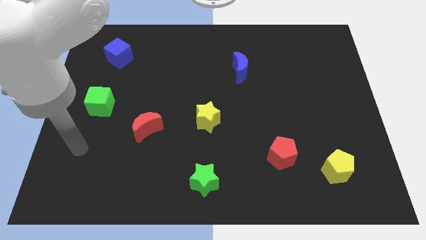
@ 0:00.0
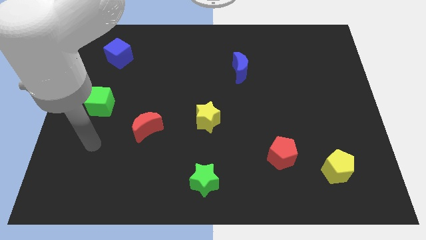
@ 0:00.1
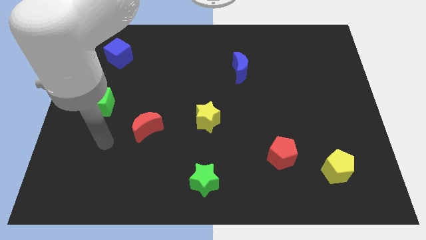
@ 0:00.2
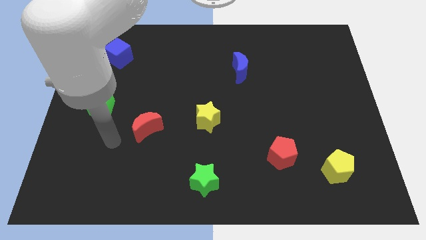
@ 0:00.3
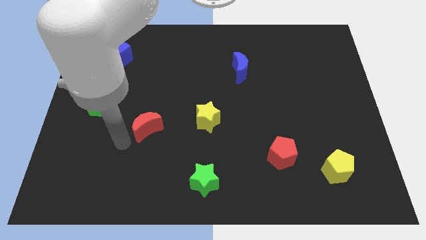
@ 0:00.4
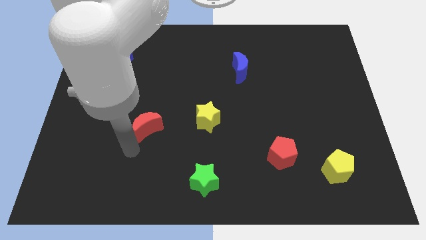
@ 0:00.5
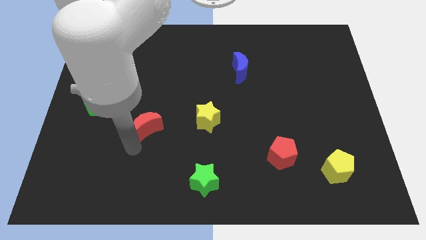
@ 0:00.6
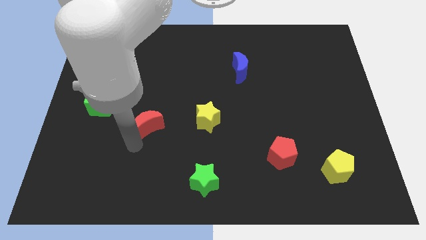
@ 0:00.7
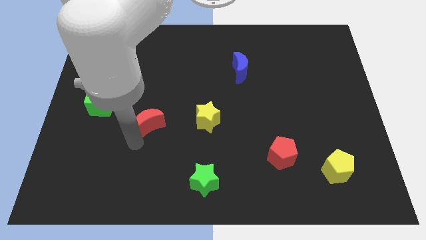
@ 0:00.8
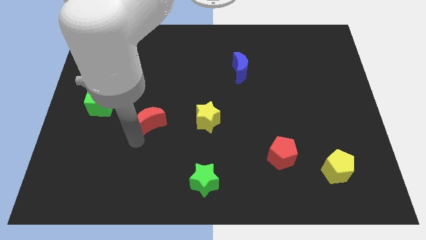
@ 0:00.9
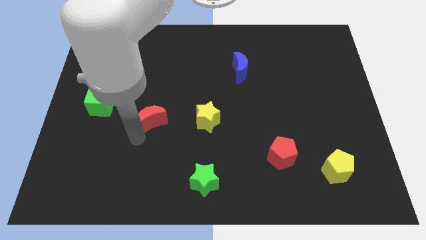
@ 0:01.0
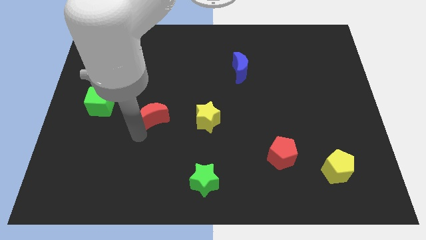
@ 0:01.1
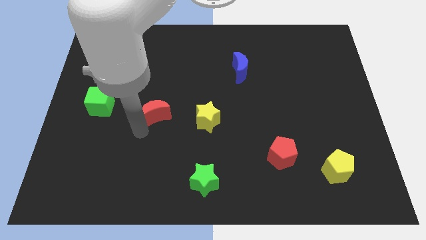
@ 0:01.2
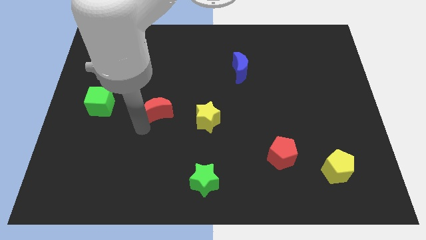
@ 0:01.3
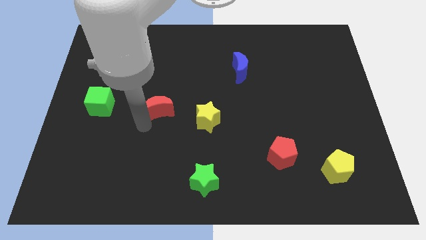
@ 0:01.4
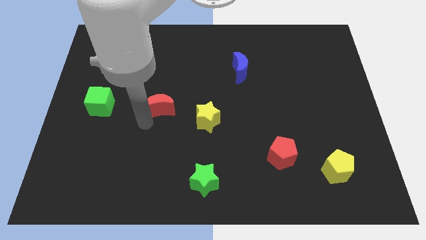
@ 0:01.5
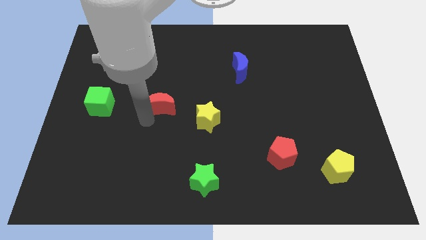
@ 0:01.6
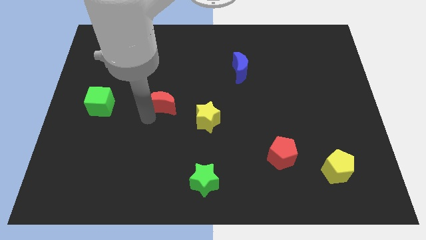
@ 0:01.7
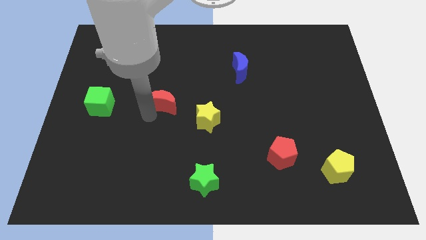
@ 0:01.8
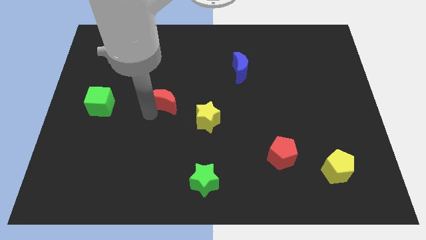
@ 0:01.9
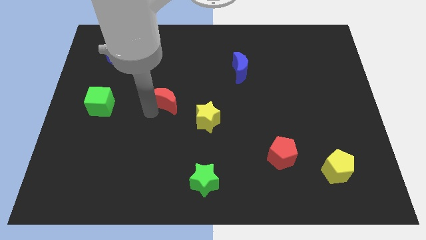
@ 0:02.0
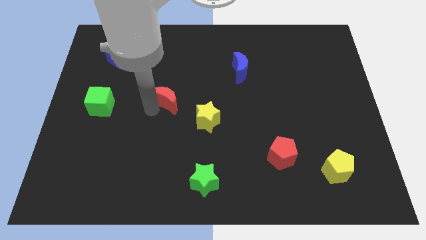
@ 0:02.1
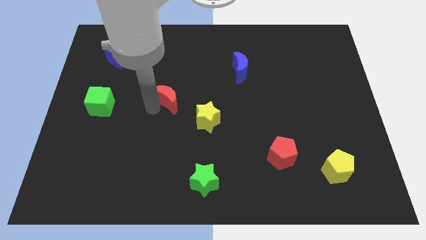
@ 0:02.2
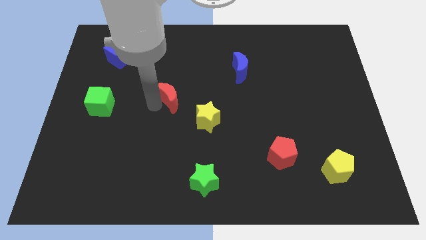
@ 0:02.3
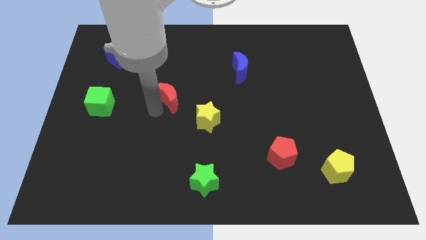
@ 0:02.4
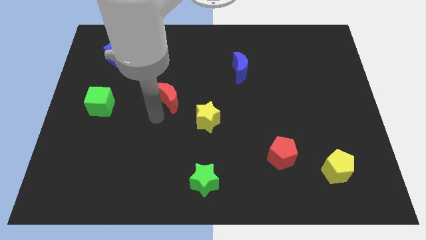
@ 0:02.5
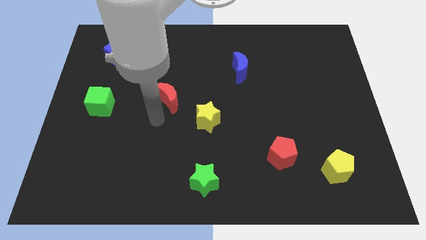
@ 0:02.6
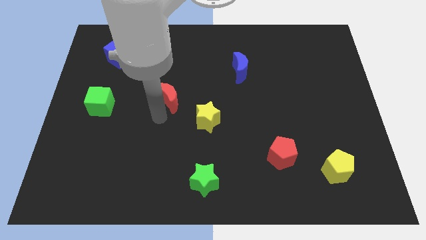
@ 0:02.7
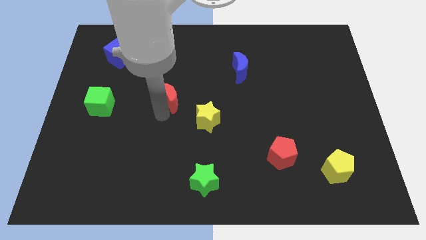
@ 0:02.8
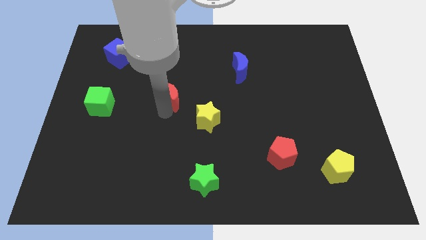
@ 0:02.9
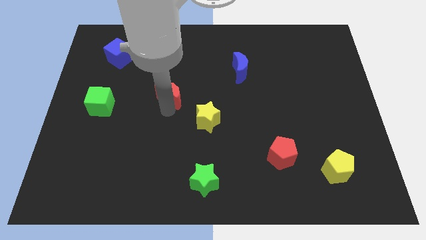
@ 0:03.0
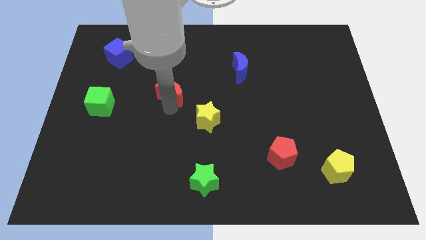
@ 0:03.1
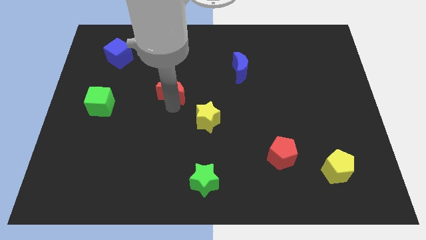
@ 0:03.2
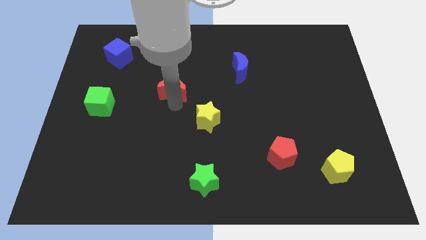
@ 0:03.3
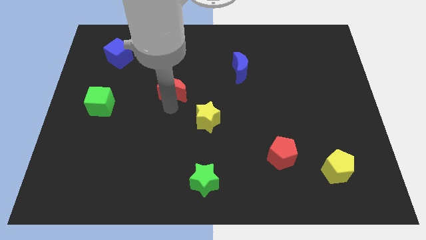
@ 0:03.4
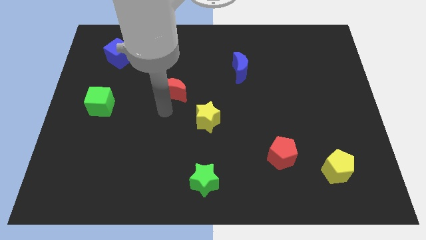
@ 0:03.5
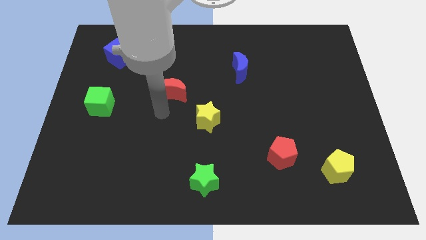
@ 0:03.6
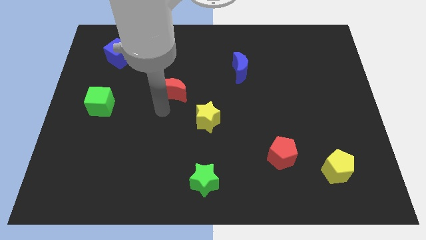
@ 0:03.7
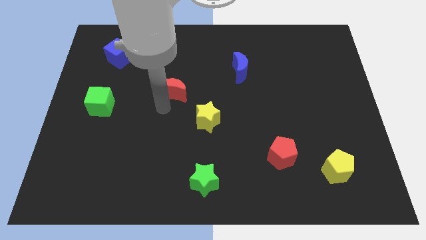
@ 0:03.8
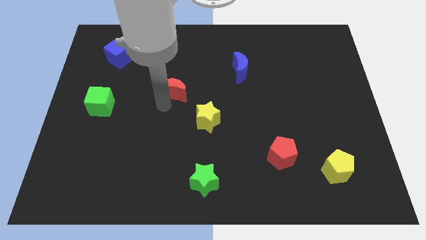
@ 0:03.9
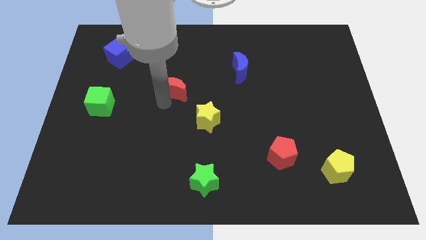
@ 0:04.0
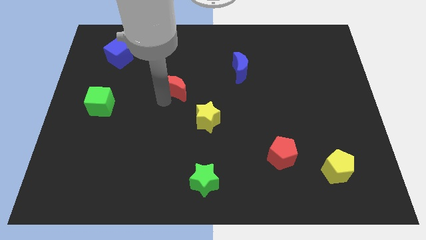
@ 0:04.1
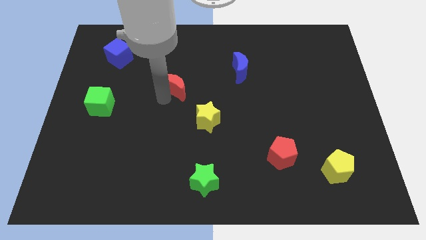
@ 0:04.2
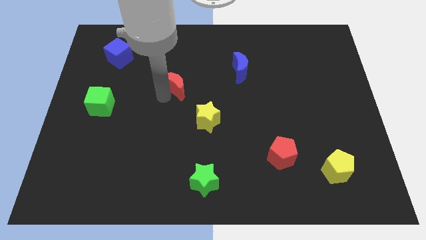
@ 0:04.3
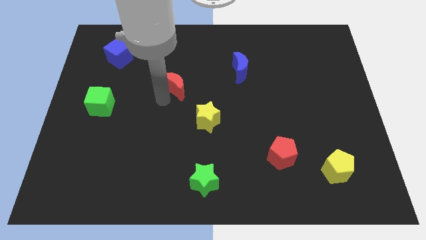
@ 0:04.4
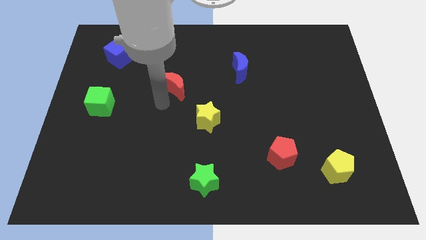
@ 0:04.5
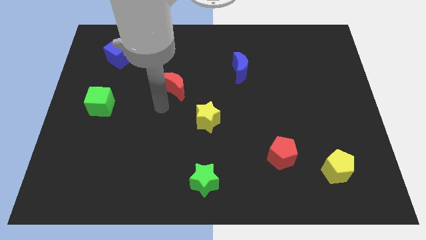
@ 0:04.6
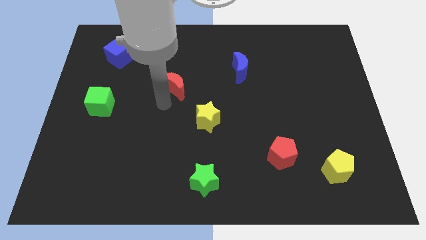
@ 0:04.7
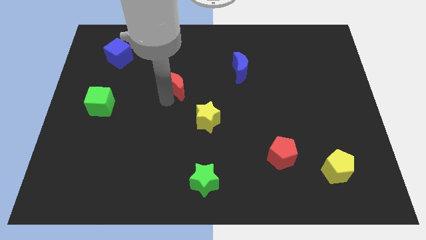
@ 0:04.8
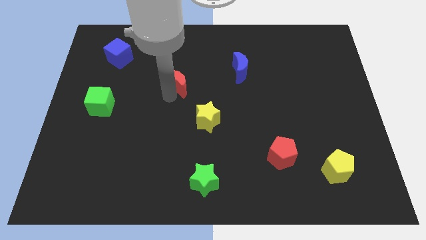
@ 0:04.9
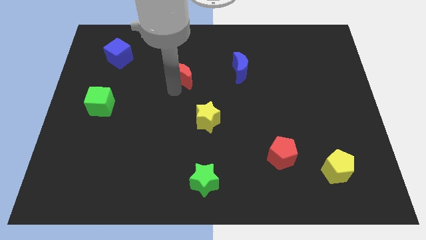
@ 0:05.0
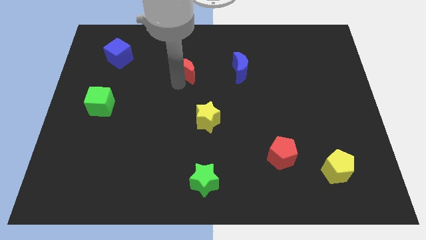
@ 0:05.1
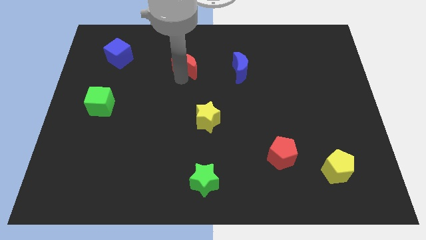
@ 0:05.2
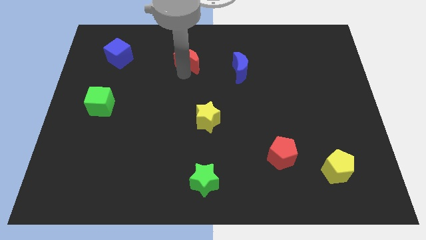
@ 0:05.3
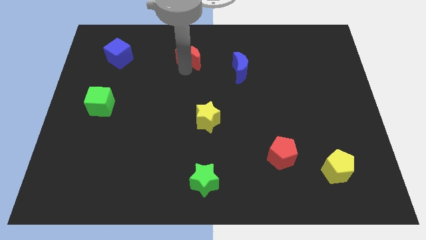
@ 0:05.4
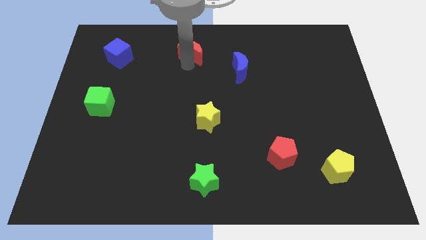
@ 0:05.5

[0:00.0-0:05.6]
push the red moon to the top

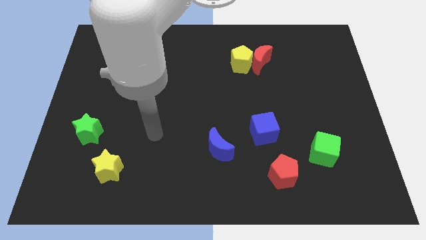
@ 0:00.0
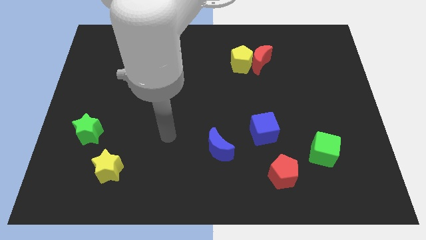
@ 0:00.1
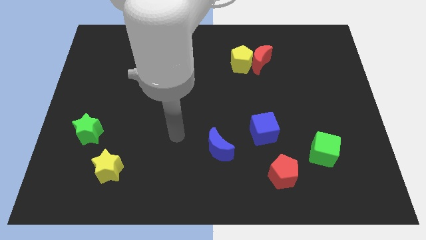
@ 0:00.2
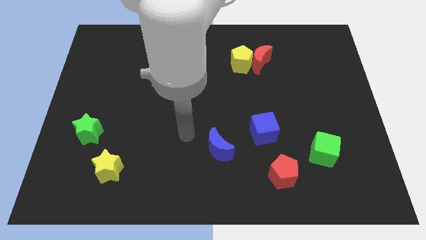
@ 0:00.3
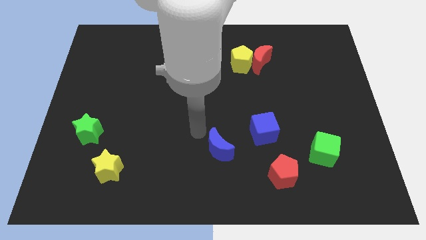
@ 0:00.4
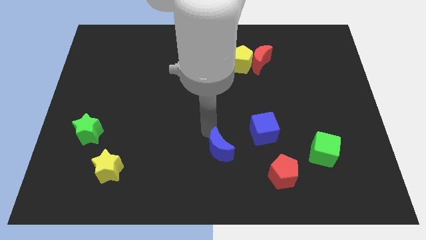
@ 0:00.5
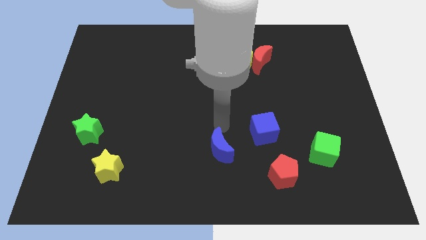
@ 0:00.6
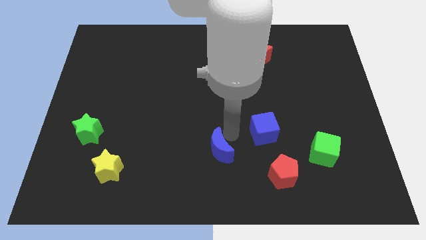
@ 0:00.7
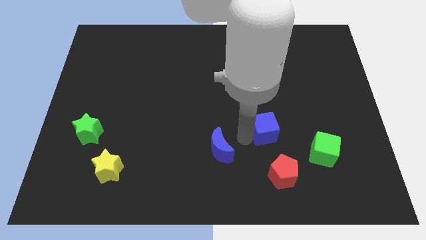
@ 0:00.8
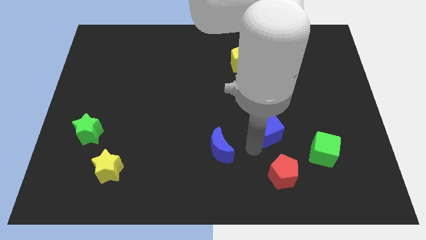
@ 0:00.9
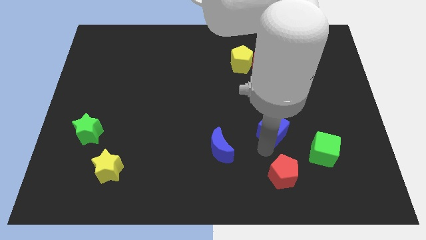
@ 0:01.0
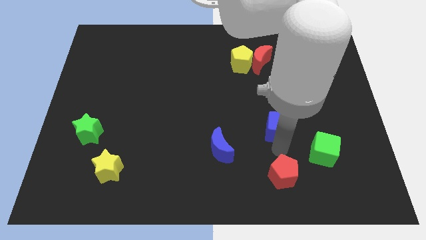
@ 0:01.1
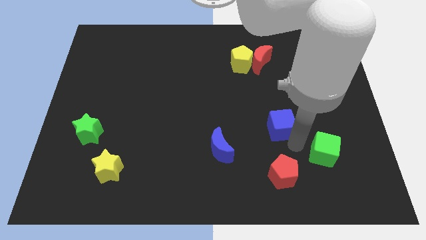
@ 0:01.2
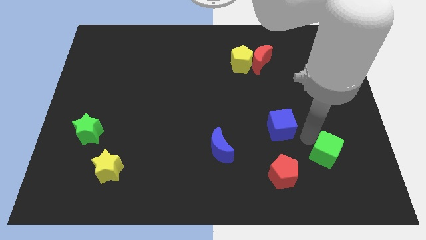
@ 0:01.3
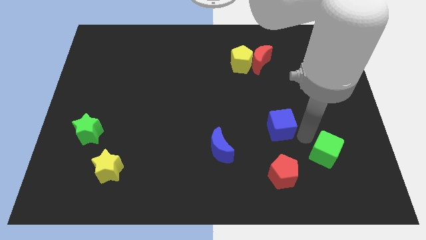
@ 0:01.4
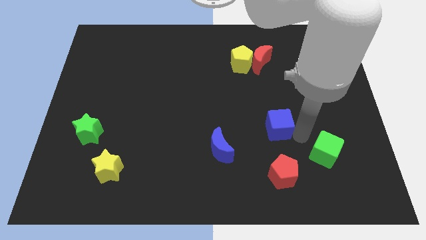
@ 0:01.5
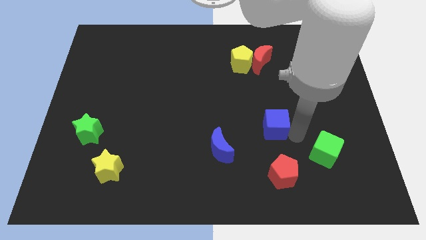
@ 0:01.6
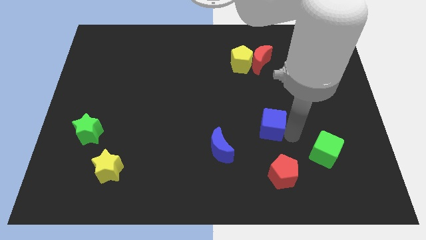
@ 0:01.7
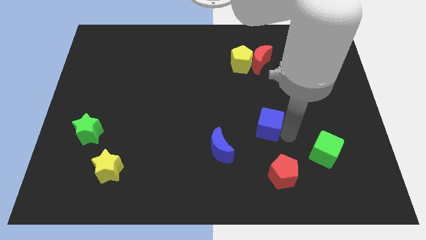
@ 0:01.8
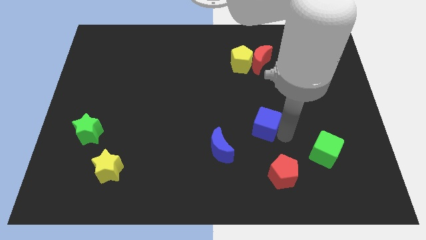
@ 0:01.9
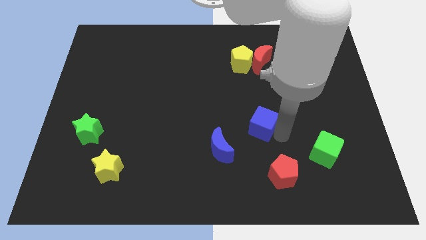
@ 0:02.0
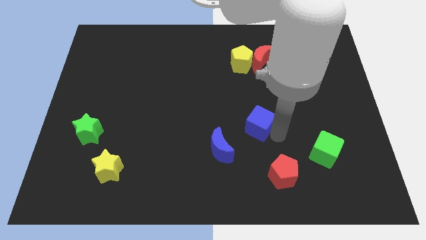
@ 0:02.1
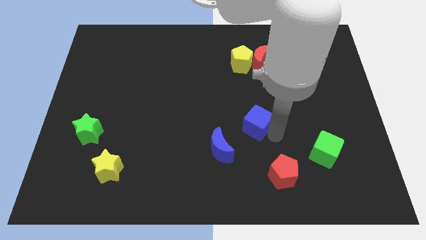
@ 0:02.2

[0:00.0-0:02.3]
slide the blue cube to the center
